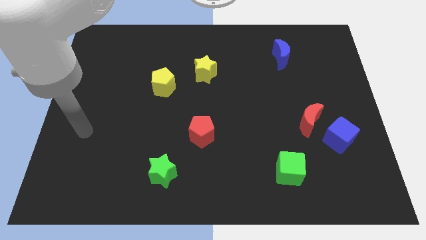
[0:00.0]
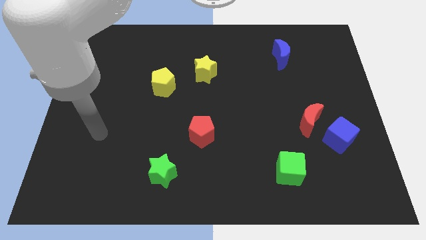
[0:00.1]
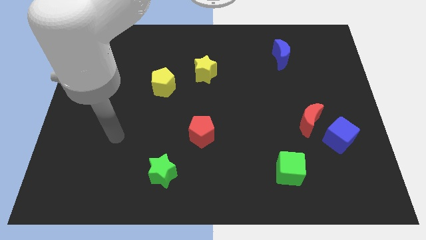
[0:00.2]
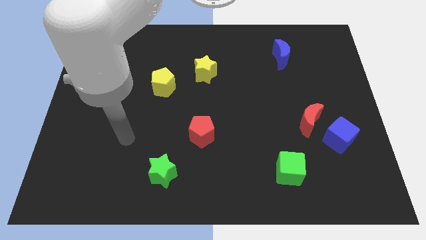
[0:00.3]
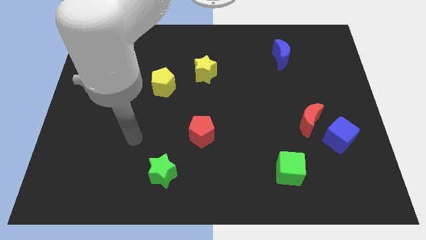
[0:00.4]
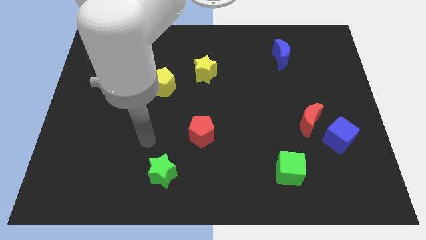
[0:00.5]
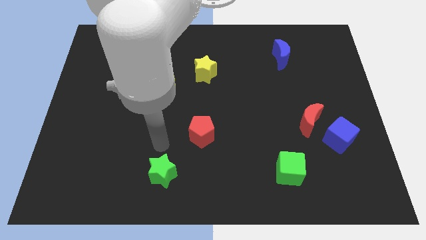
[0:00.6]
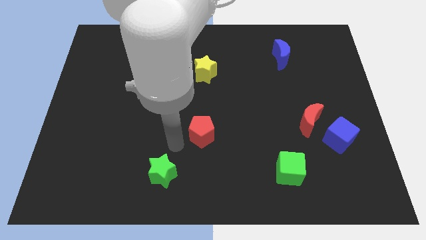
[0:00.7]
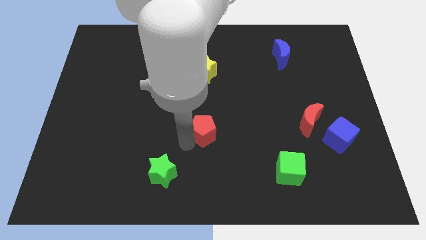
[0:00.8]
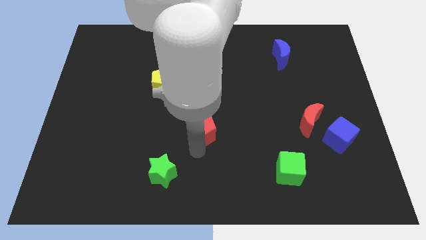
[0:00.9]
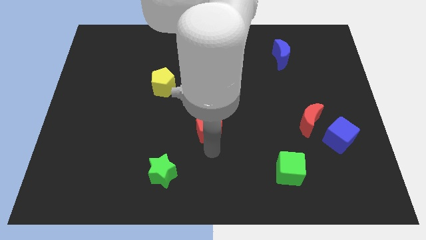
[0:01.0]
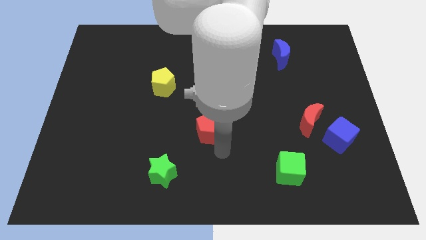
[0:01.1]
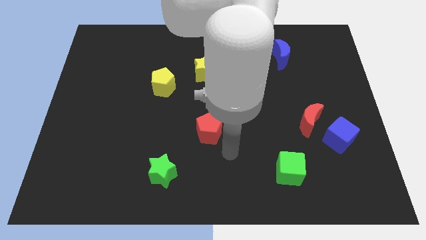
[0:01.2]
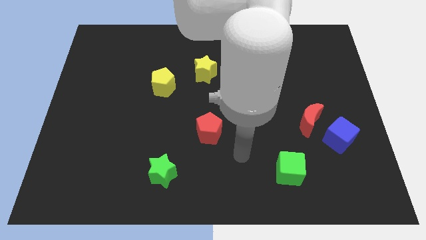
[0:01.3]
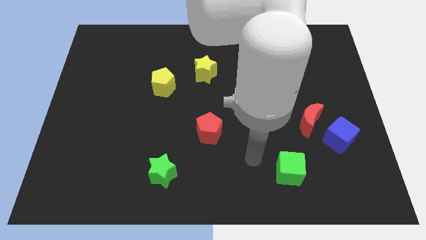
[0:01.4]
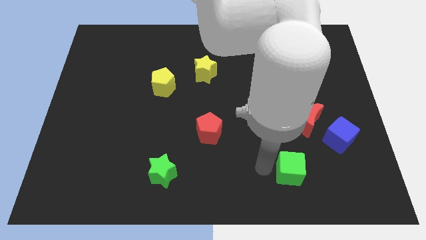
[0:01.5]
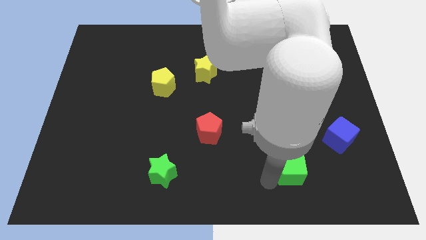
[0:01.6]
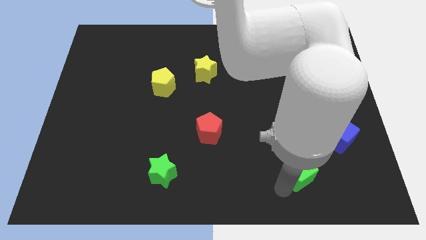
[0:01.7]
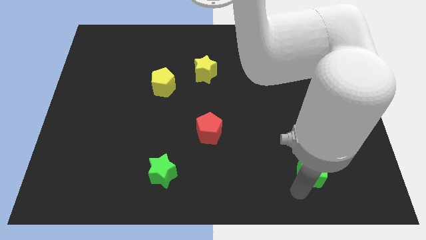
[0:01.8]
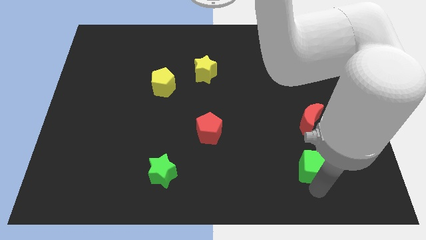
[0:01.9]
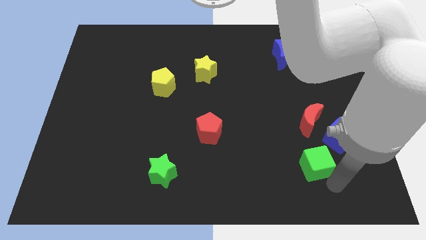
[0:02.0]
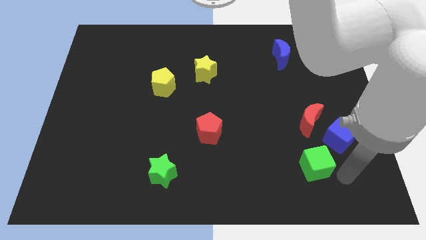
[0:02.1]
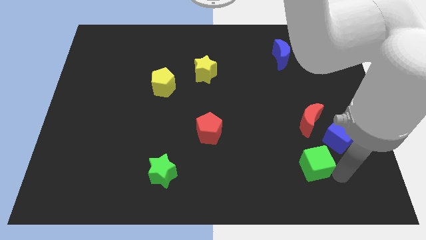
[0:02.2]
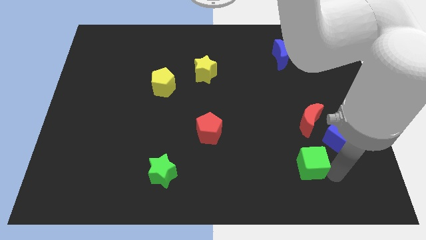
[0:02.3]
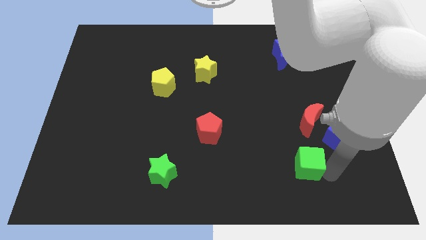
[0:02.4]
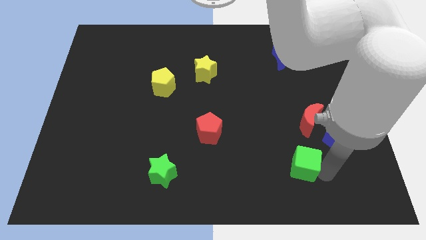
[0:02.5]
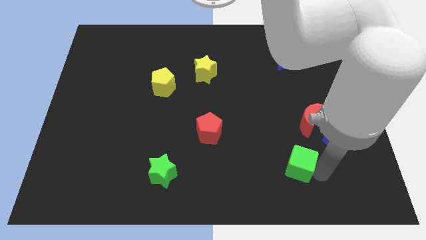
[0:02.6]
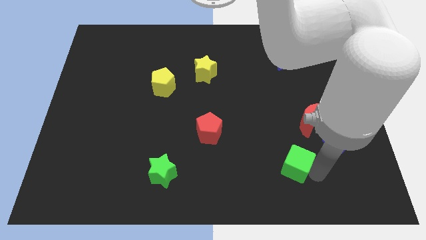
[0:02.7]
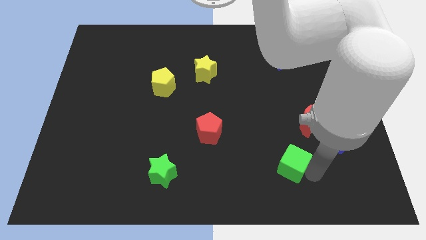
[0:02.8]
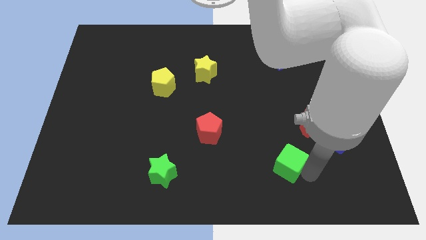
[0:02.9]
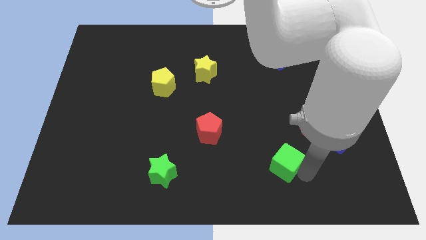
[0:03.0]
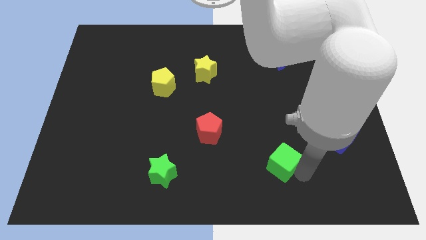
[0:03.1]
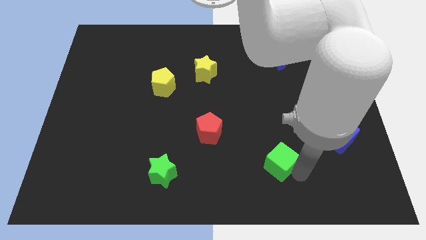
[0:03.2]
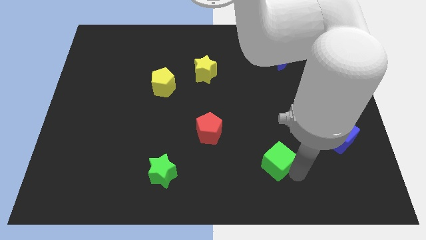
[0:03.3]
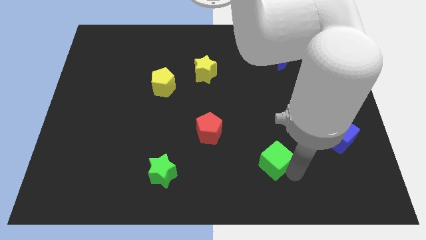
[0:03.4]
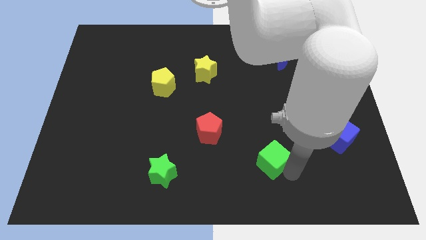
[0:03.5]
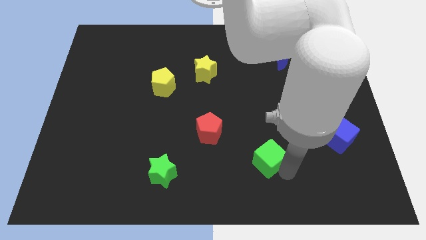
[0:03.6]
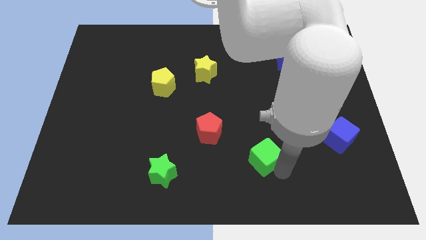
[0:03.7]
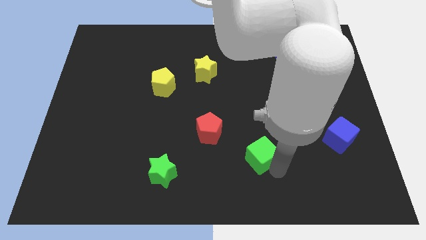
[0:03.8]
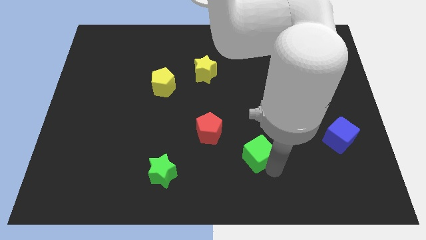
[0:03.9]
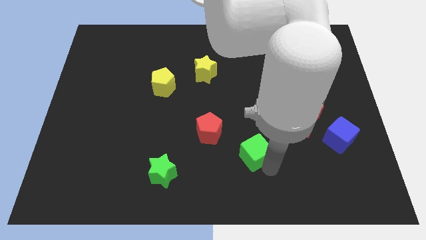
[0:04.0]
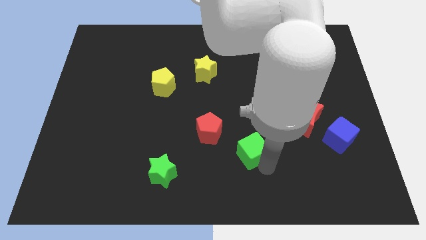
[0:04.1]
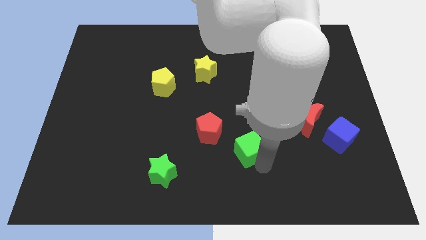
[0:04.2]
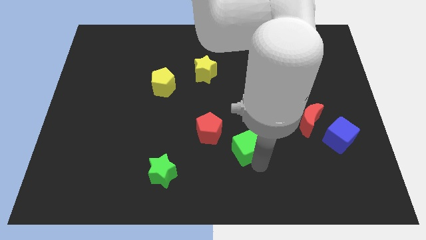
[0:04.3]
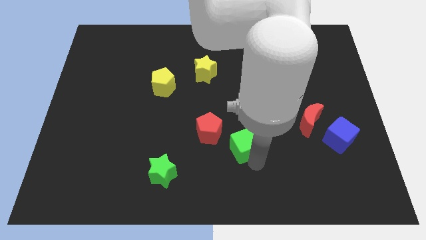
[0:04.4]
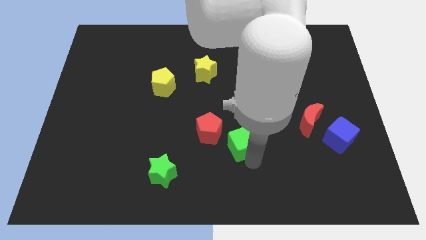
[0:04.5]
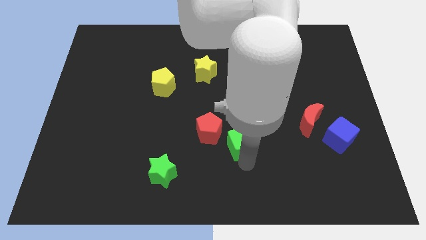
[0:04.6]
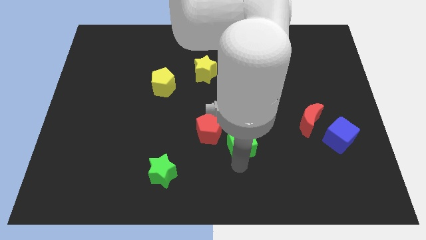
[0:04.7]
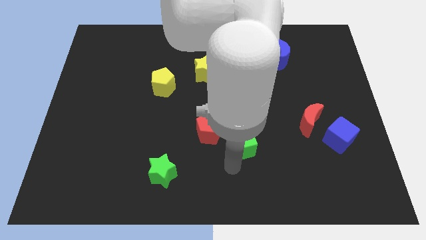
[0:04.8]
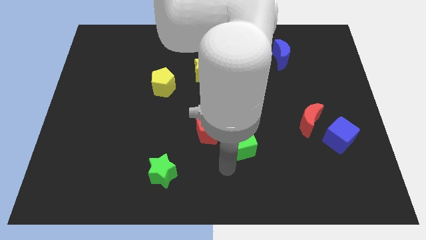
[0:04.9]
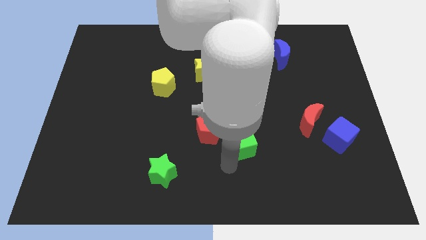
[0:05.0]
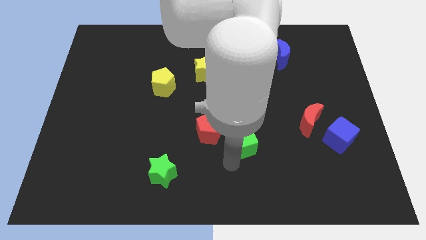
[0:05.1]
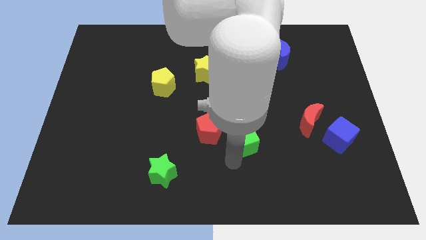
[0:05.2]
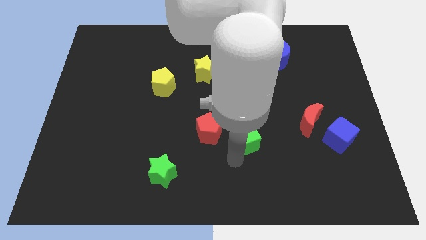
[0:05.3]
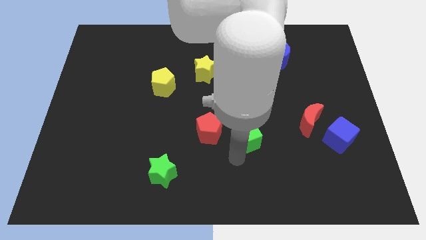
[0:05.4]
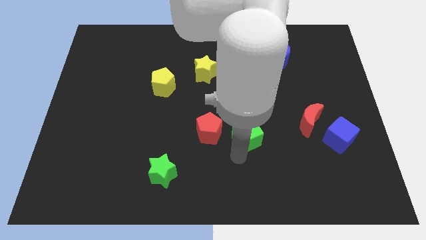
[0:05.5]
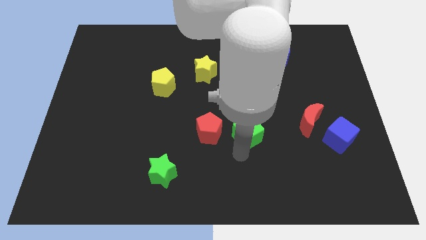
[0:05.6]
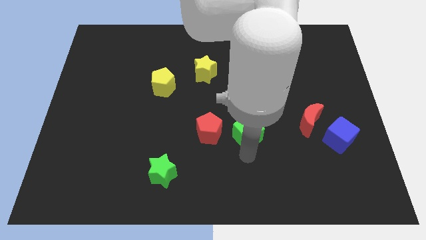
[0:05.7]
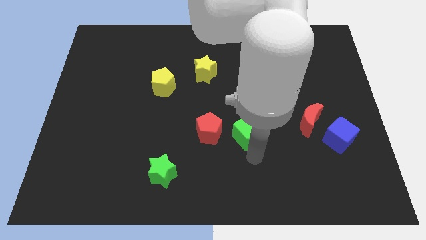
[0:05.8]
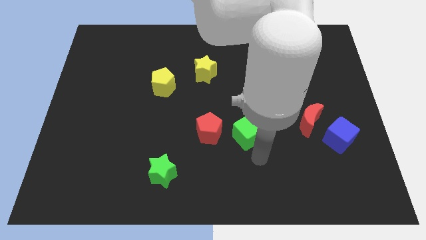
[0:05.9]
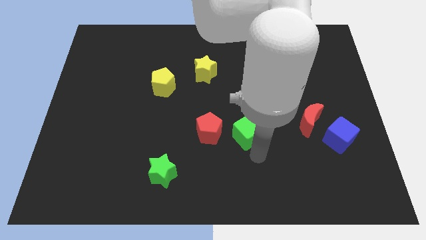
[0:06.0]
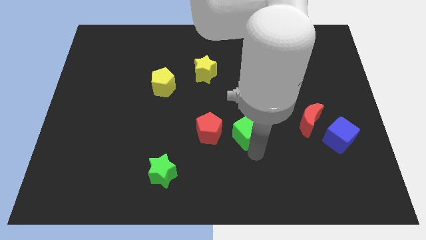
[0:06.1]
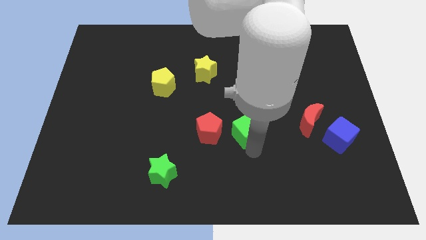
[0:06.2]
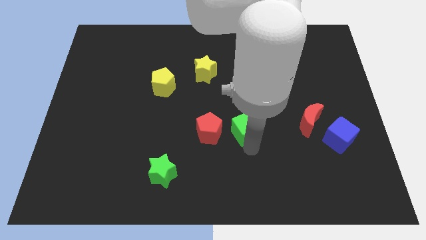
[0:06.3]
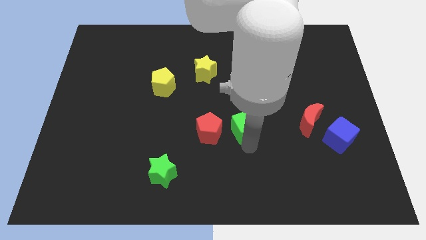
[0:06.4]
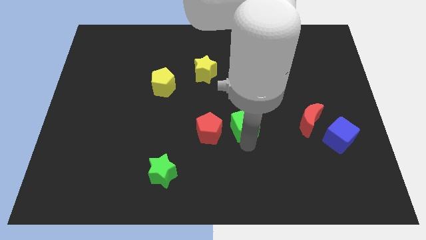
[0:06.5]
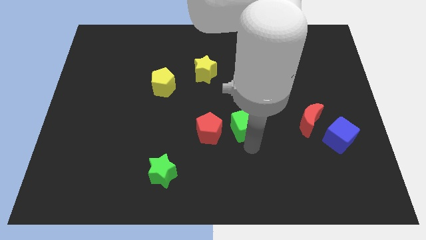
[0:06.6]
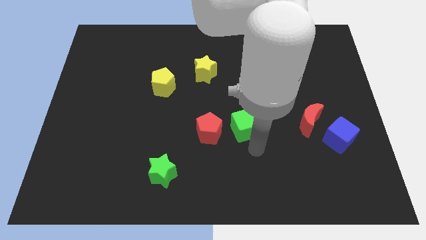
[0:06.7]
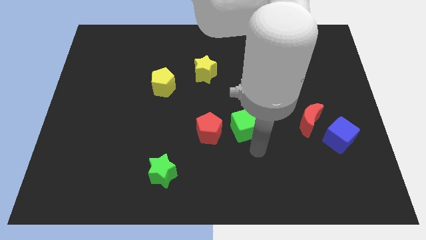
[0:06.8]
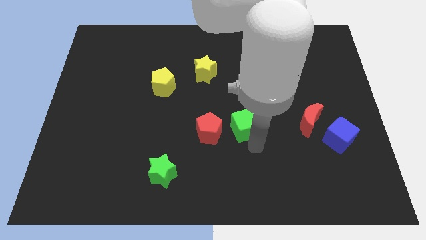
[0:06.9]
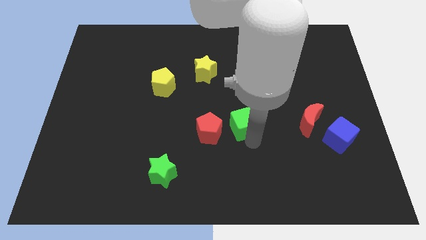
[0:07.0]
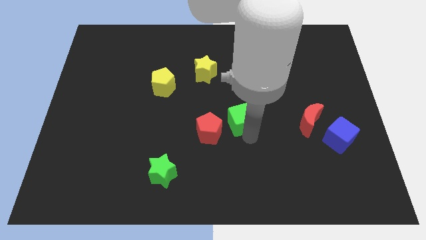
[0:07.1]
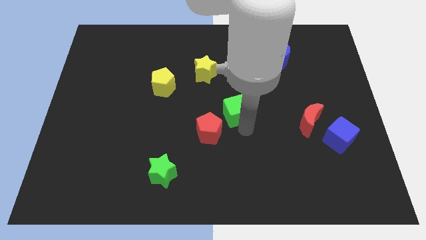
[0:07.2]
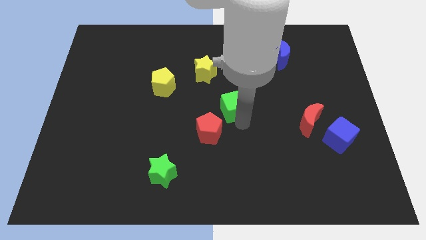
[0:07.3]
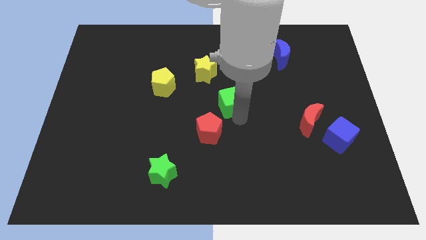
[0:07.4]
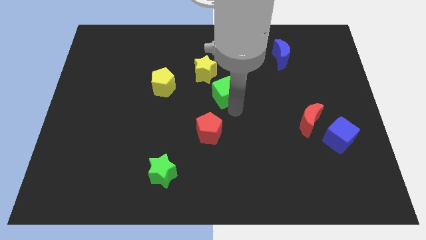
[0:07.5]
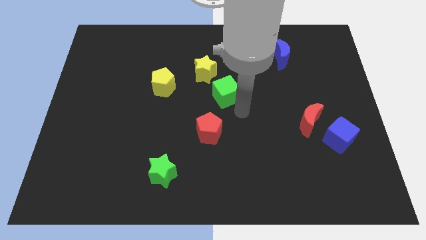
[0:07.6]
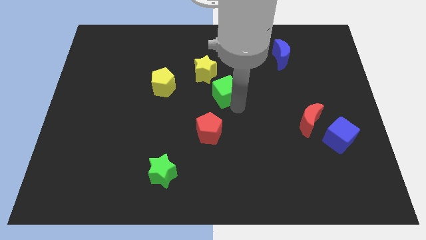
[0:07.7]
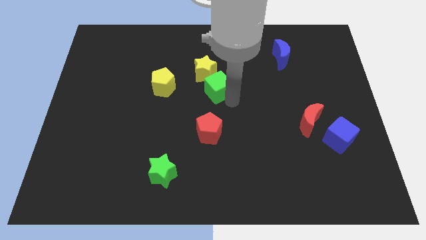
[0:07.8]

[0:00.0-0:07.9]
slide the green cube next to the yellow star
